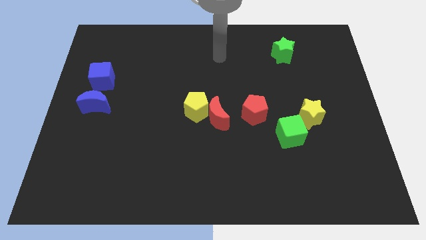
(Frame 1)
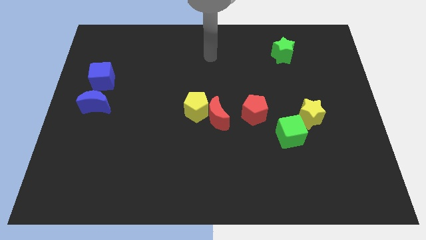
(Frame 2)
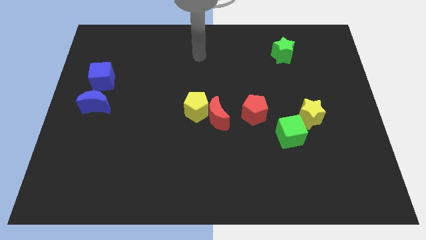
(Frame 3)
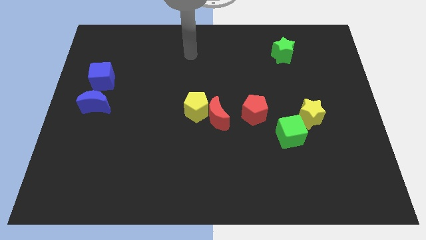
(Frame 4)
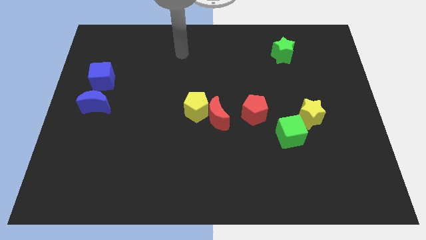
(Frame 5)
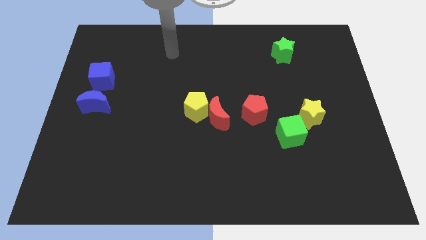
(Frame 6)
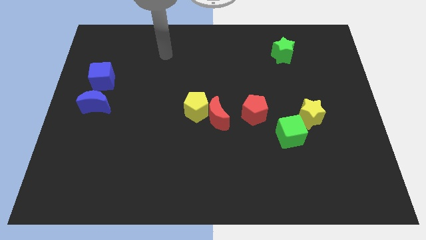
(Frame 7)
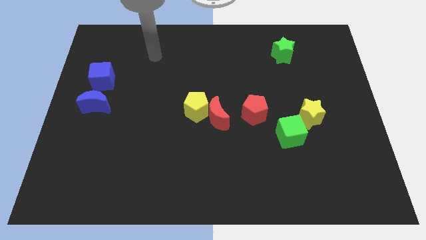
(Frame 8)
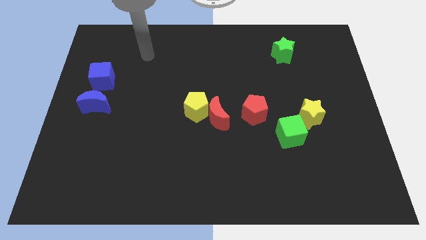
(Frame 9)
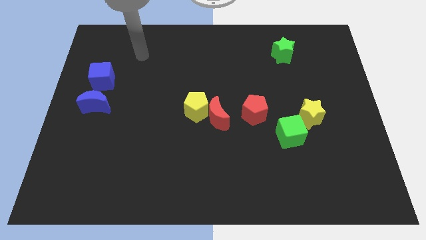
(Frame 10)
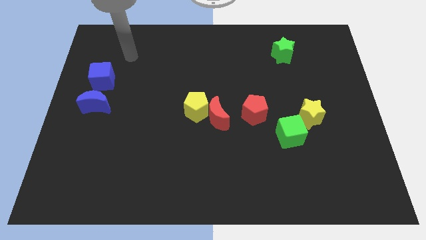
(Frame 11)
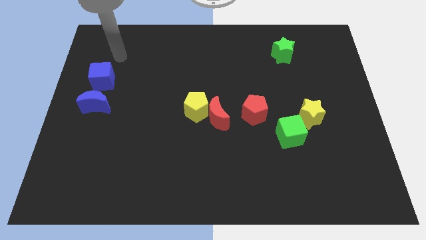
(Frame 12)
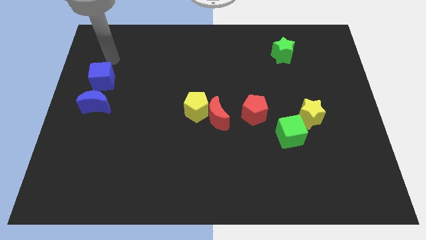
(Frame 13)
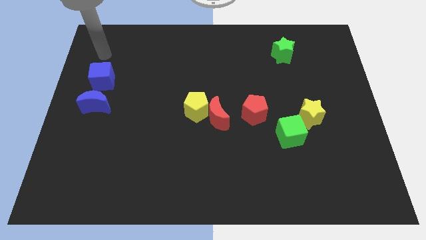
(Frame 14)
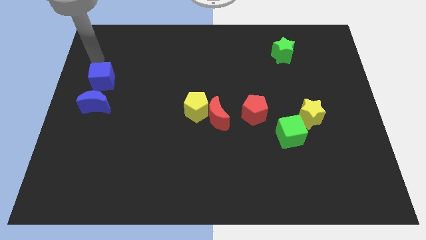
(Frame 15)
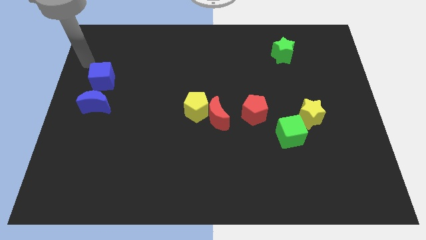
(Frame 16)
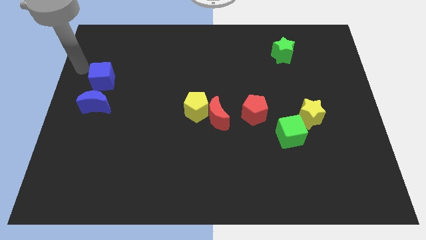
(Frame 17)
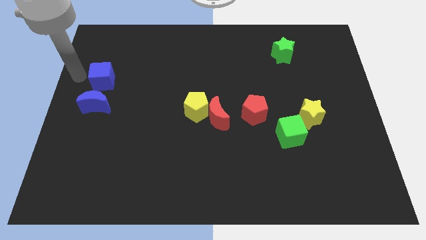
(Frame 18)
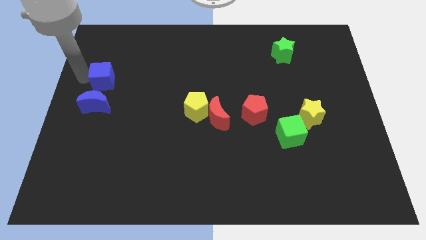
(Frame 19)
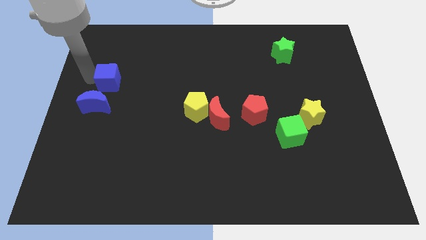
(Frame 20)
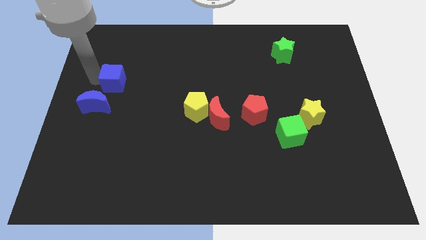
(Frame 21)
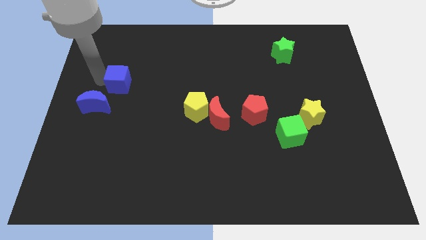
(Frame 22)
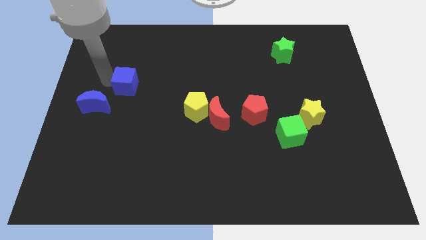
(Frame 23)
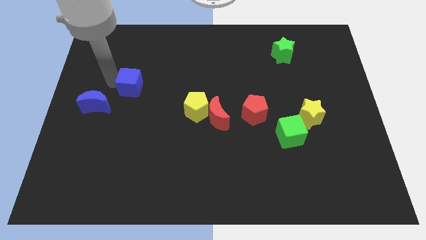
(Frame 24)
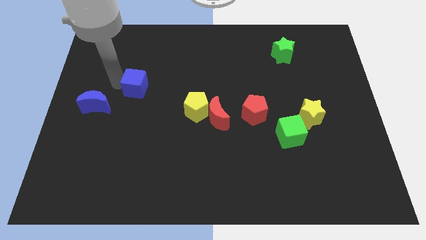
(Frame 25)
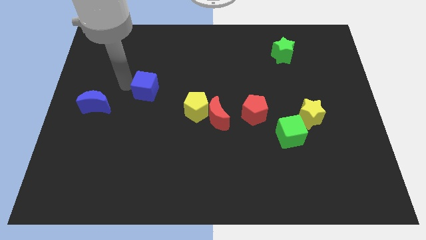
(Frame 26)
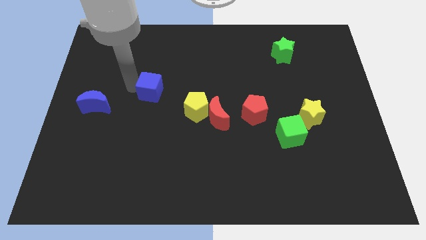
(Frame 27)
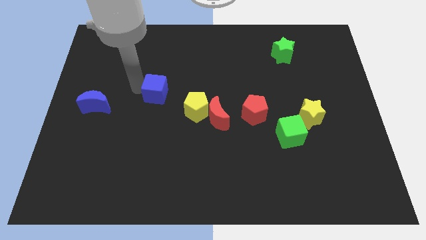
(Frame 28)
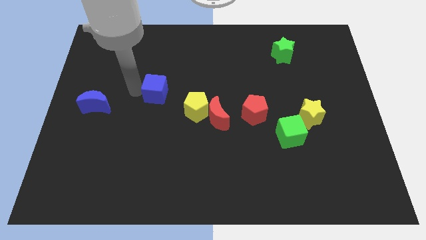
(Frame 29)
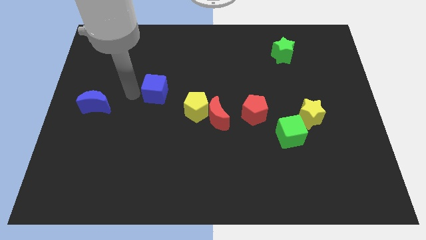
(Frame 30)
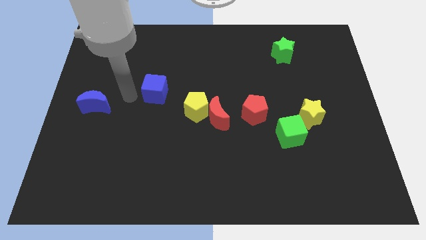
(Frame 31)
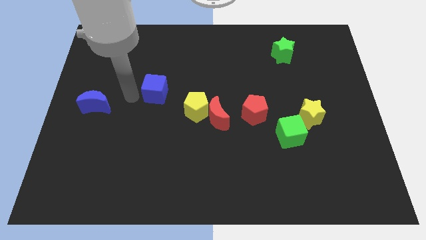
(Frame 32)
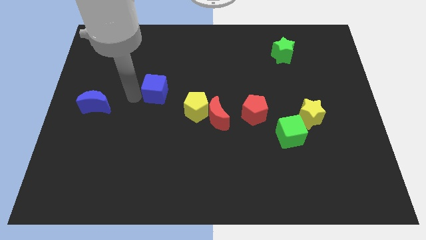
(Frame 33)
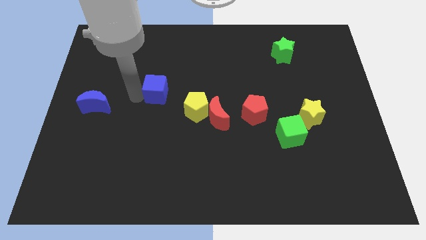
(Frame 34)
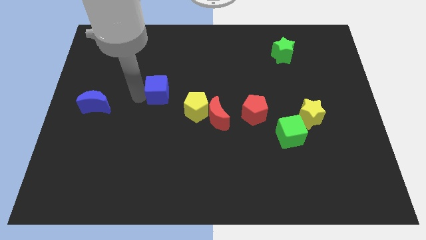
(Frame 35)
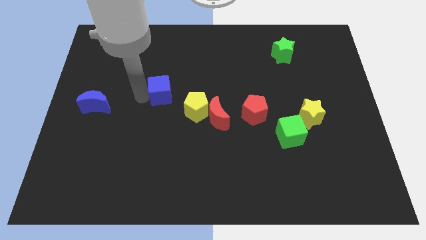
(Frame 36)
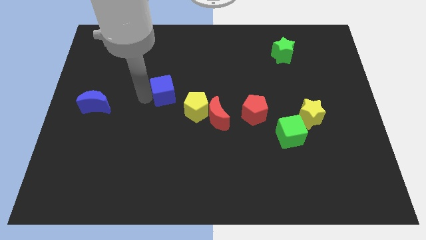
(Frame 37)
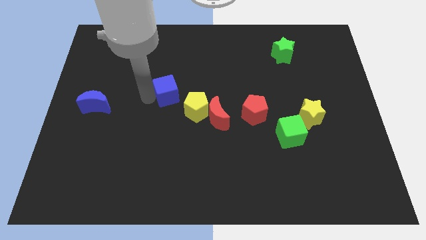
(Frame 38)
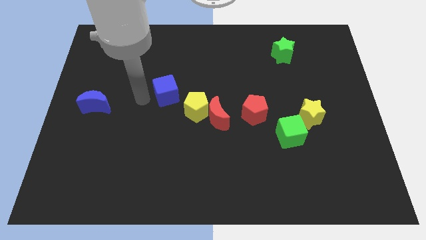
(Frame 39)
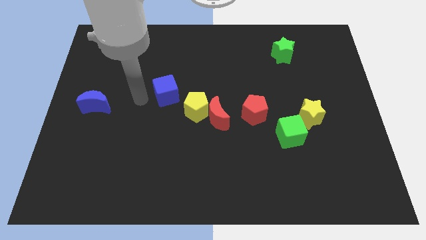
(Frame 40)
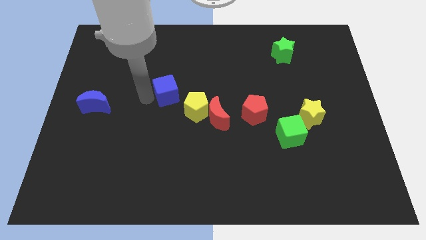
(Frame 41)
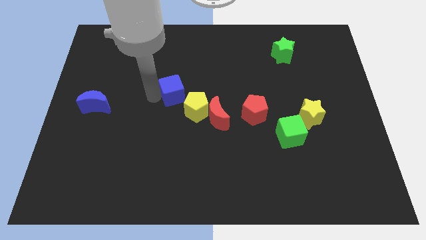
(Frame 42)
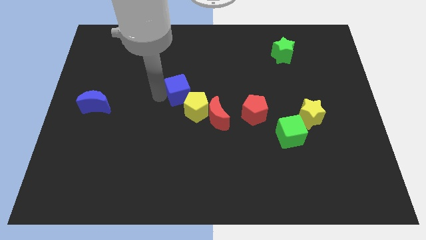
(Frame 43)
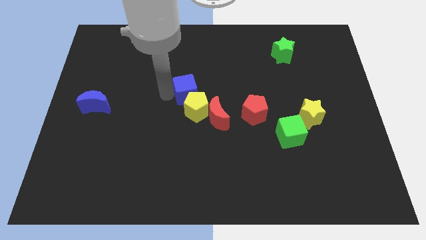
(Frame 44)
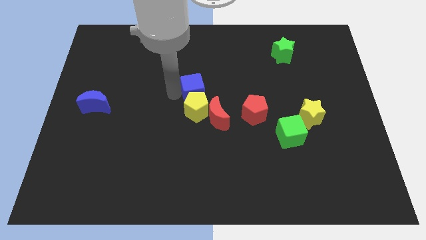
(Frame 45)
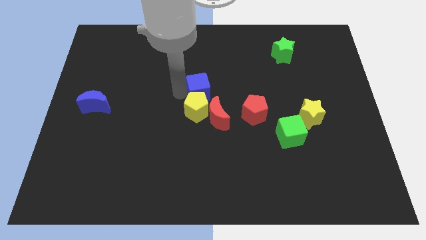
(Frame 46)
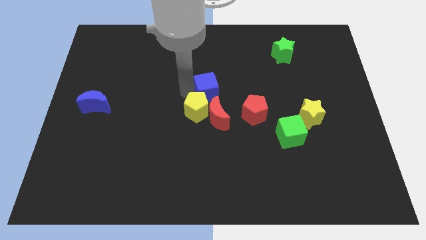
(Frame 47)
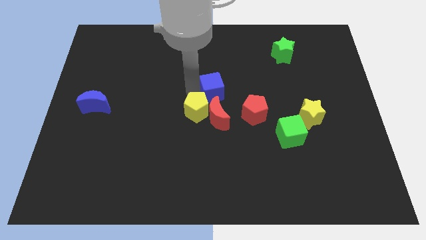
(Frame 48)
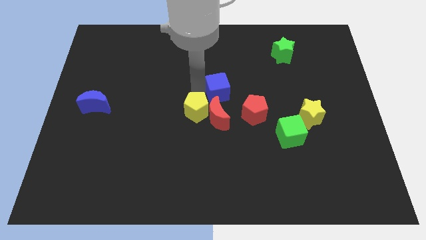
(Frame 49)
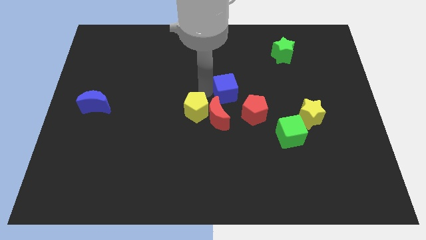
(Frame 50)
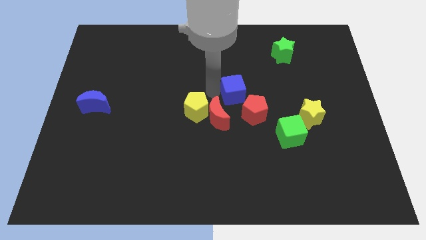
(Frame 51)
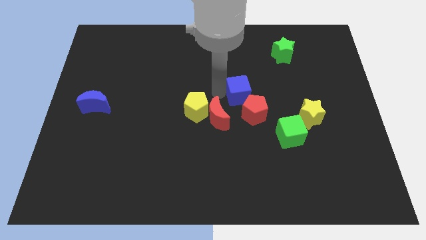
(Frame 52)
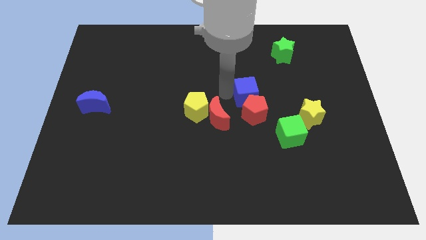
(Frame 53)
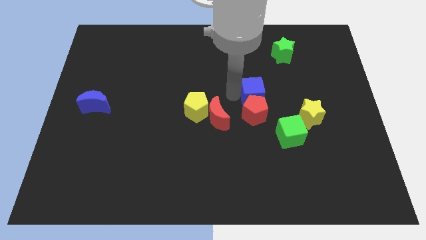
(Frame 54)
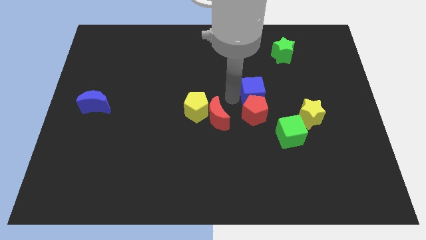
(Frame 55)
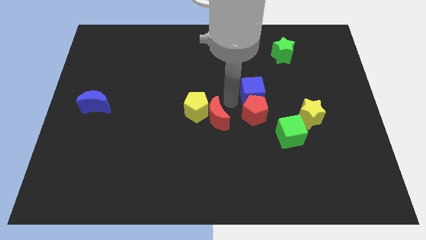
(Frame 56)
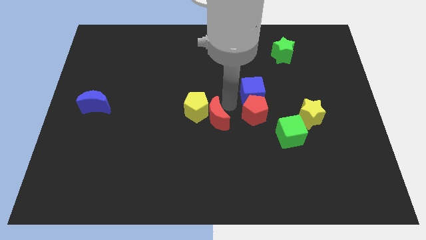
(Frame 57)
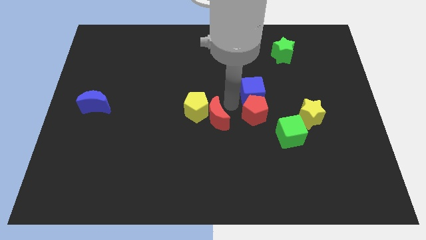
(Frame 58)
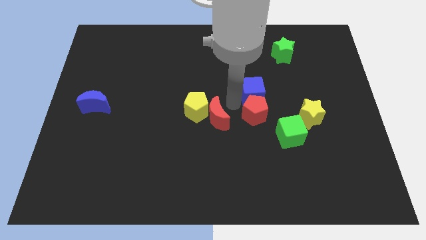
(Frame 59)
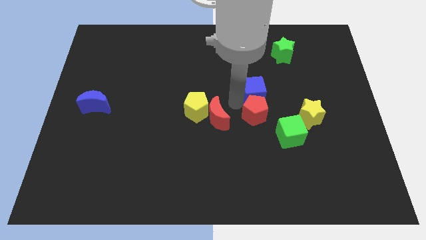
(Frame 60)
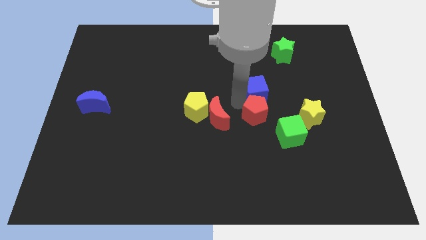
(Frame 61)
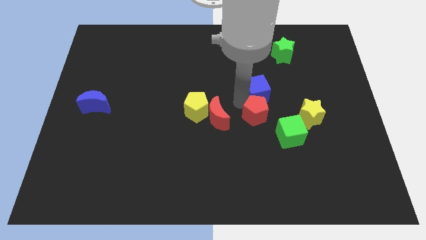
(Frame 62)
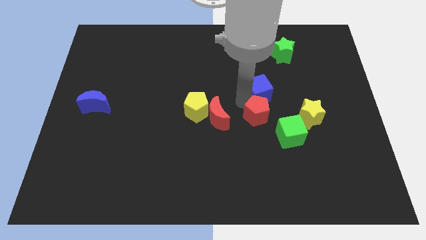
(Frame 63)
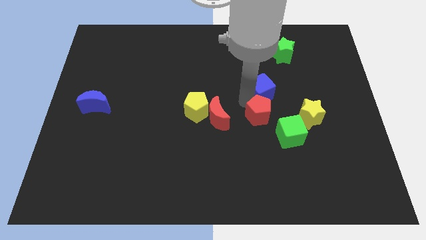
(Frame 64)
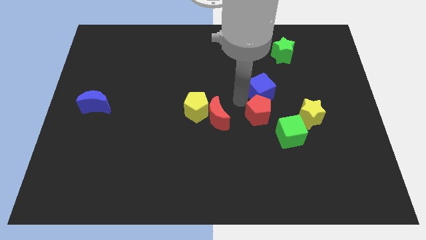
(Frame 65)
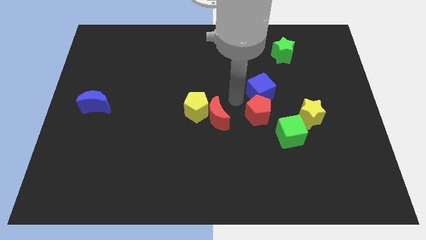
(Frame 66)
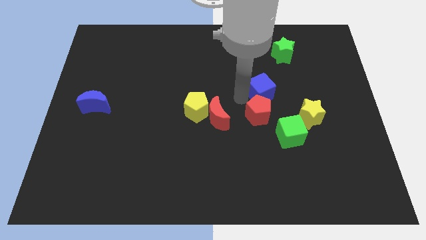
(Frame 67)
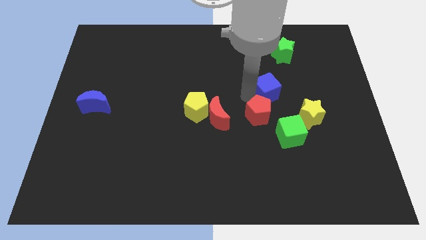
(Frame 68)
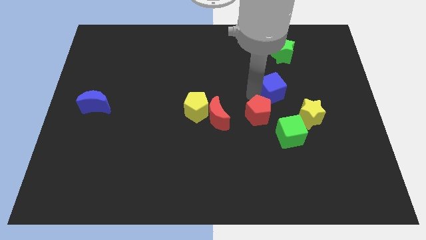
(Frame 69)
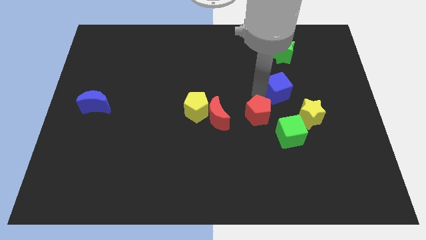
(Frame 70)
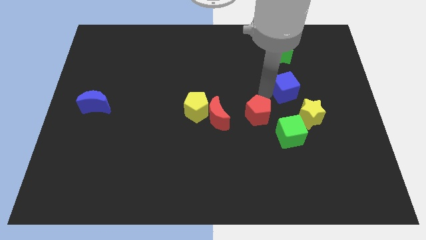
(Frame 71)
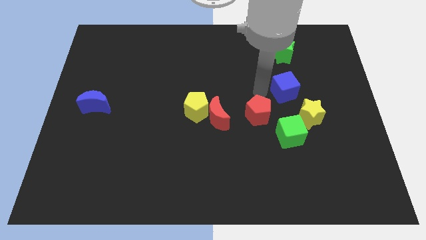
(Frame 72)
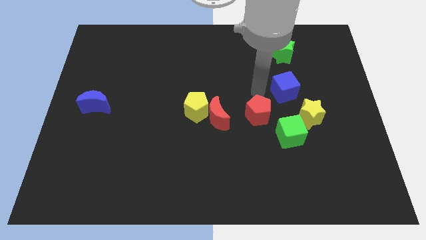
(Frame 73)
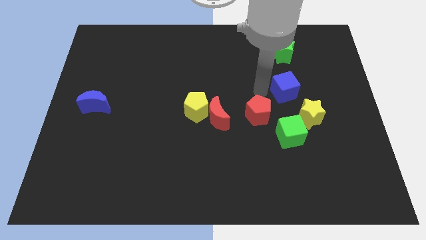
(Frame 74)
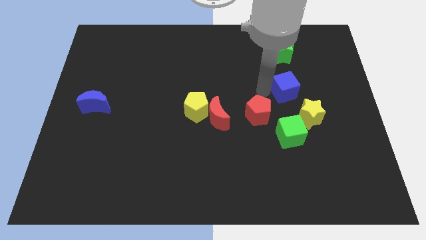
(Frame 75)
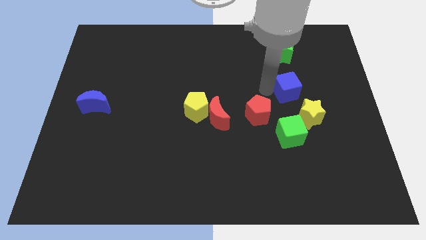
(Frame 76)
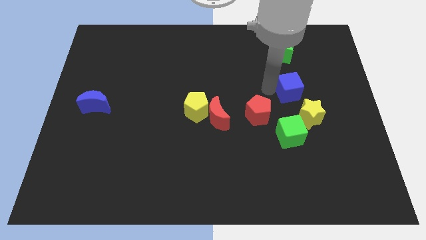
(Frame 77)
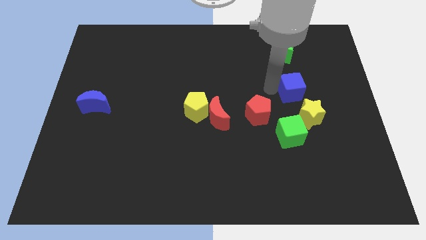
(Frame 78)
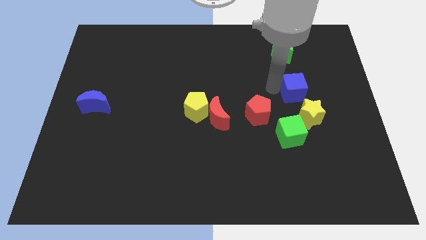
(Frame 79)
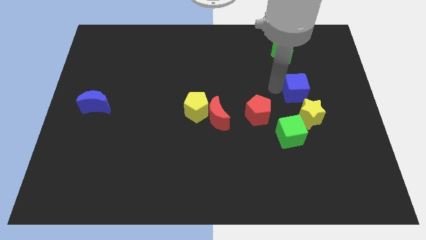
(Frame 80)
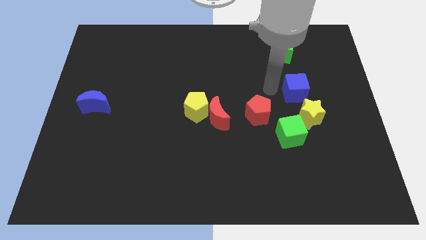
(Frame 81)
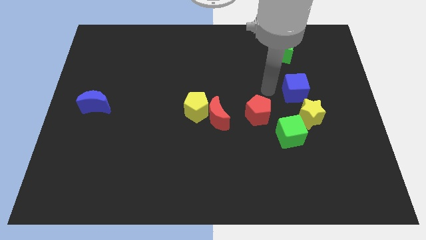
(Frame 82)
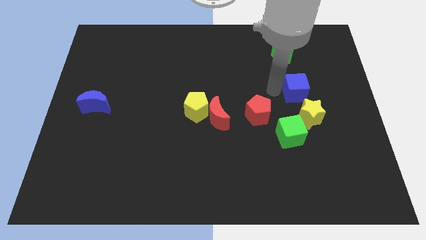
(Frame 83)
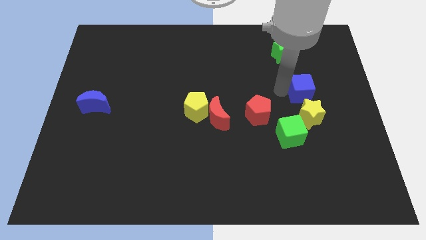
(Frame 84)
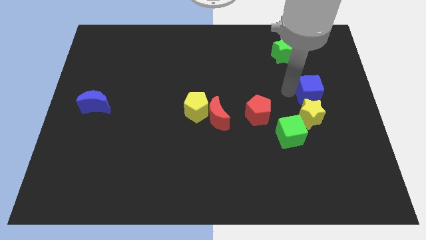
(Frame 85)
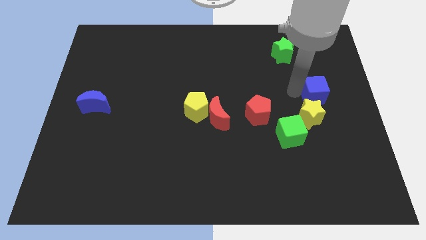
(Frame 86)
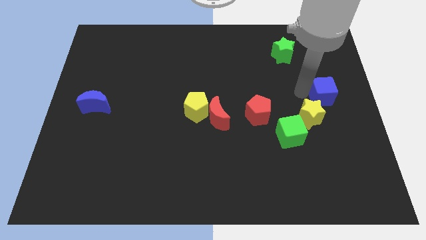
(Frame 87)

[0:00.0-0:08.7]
move the blue cube to the right side of the board
